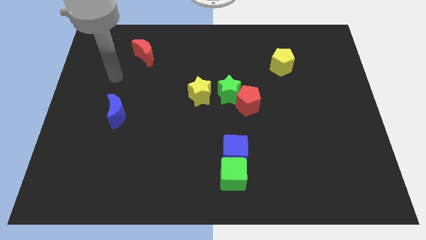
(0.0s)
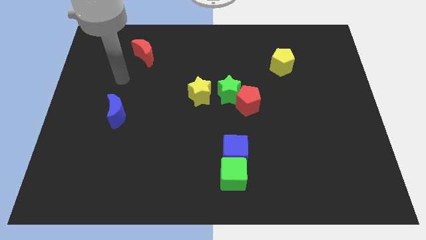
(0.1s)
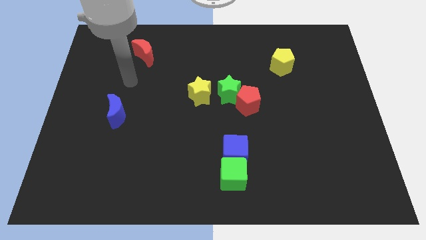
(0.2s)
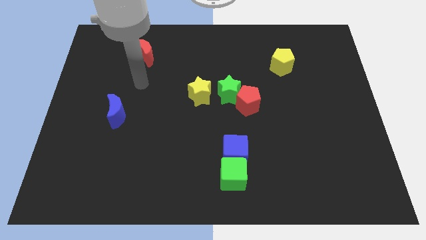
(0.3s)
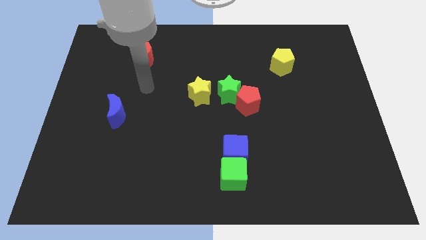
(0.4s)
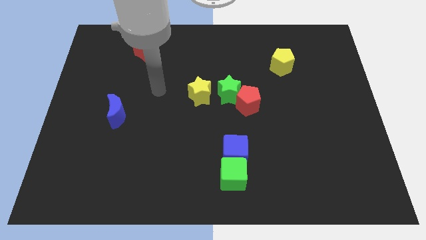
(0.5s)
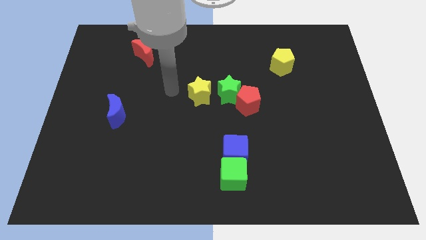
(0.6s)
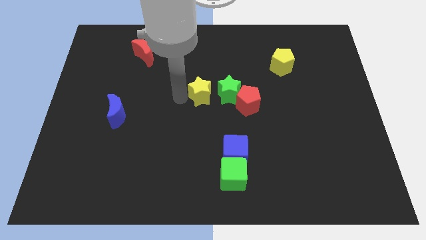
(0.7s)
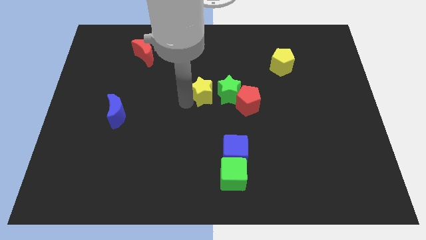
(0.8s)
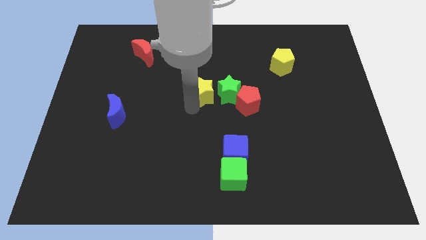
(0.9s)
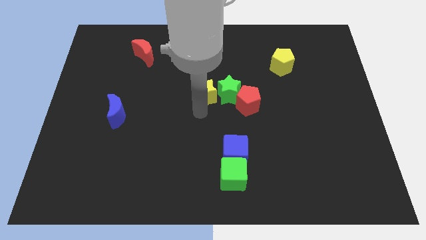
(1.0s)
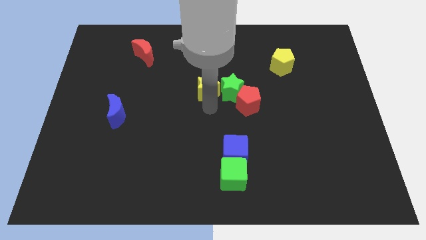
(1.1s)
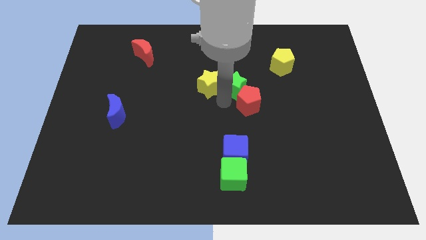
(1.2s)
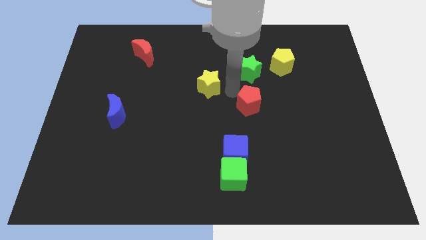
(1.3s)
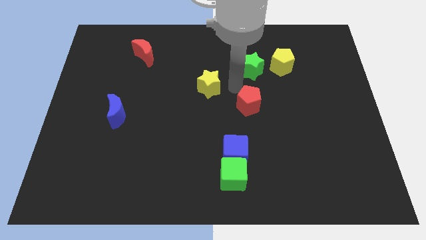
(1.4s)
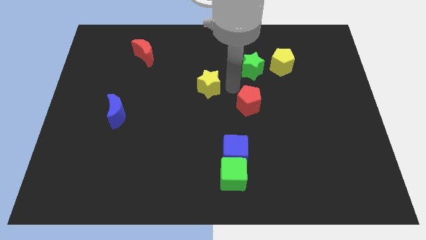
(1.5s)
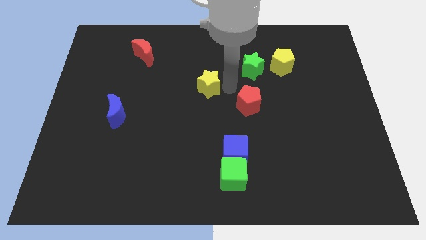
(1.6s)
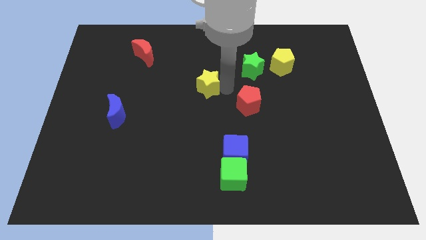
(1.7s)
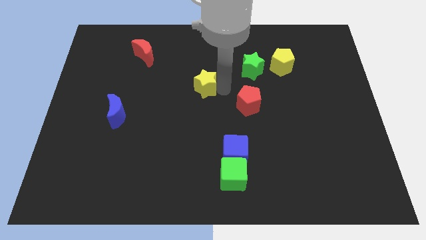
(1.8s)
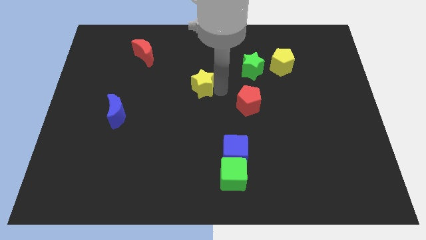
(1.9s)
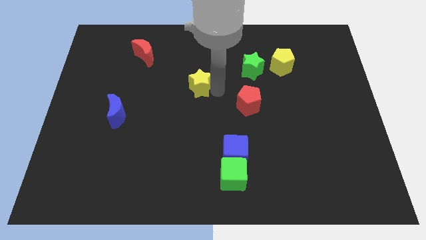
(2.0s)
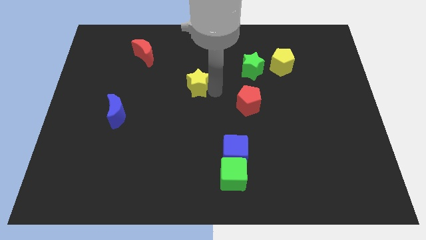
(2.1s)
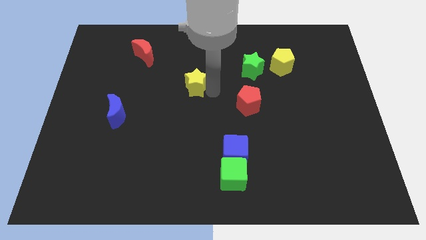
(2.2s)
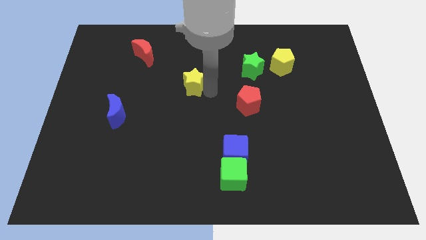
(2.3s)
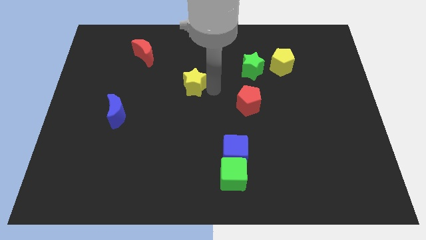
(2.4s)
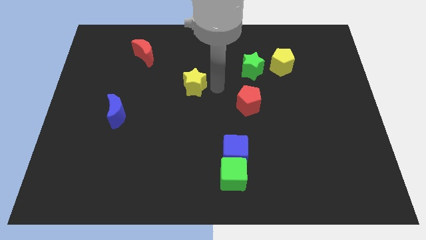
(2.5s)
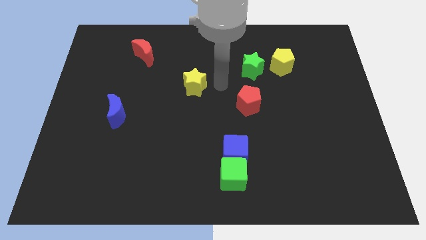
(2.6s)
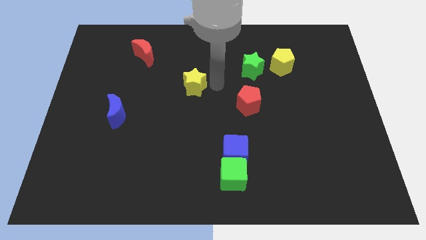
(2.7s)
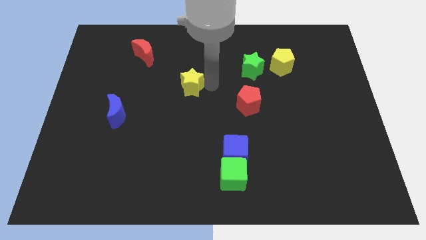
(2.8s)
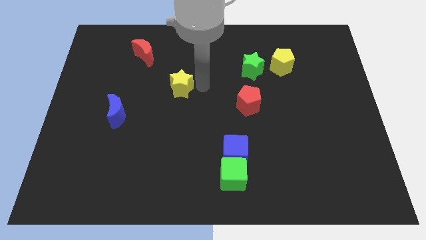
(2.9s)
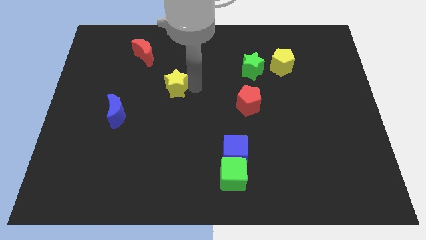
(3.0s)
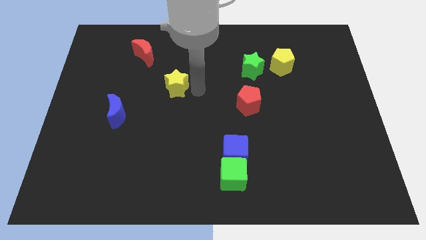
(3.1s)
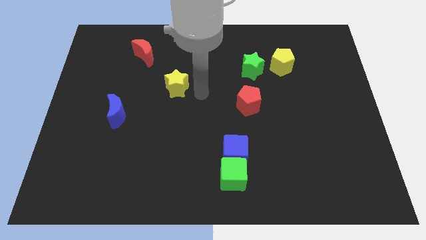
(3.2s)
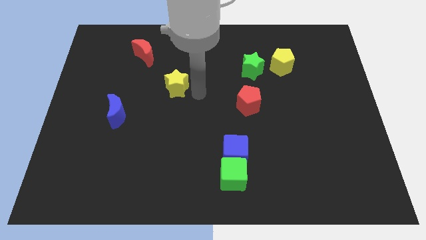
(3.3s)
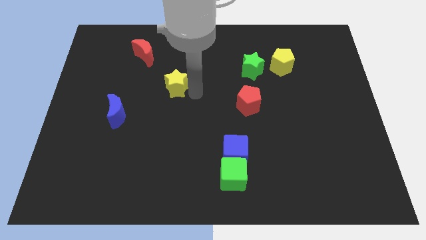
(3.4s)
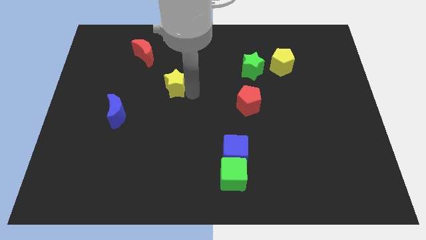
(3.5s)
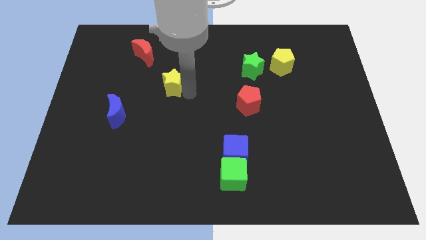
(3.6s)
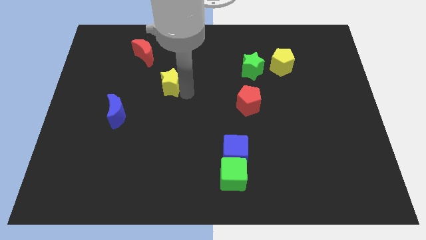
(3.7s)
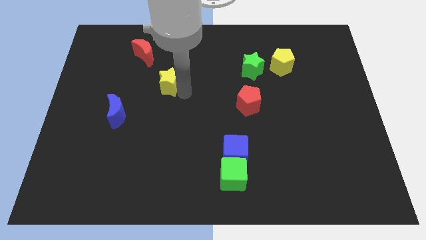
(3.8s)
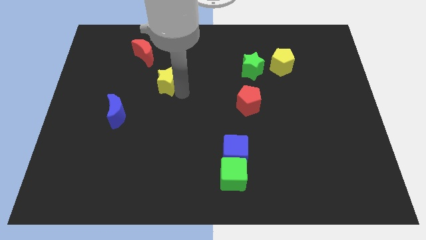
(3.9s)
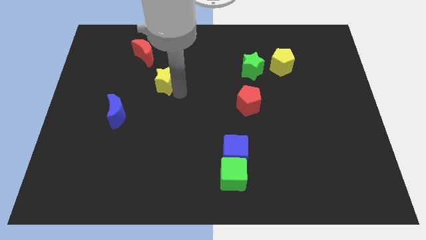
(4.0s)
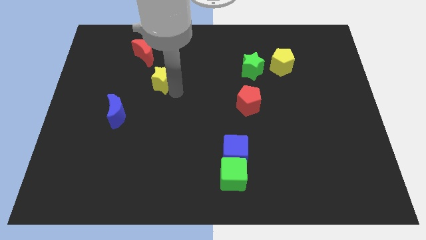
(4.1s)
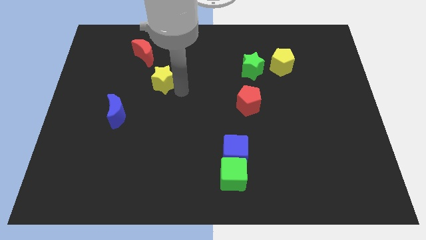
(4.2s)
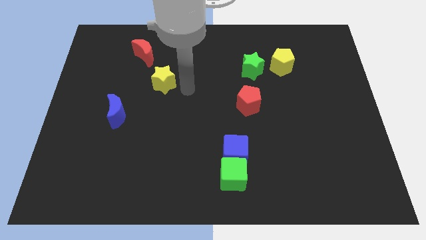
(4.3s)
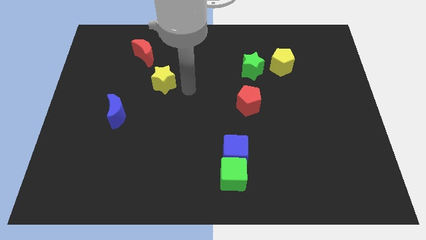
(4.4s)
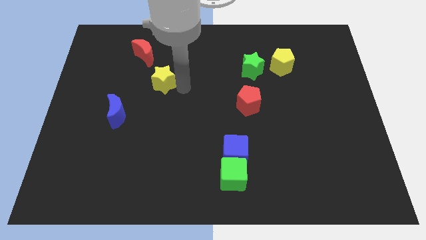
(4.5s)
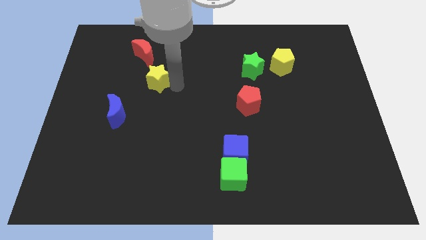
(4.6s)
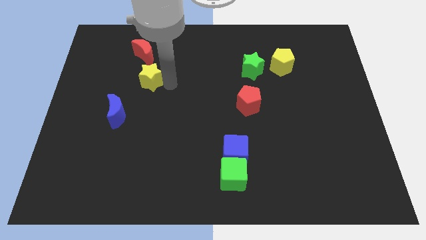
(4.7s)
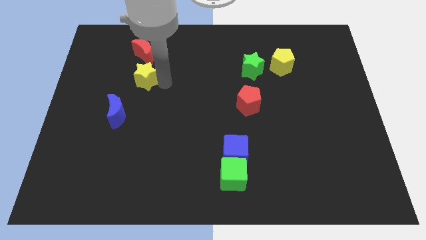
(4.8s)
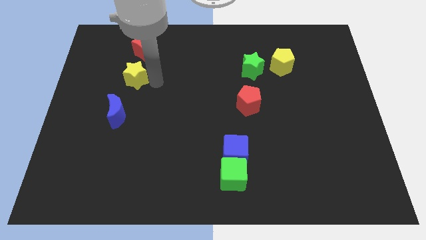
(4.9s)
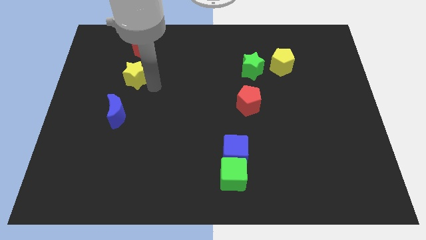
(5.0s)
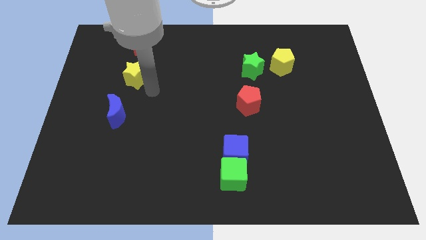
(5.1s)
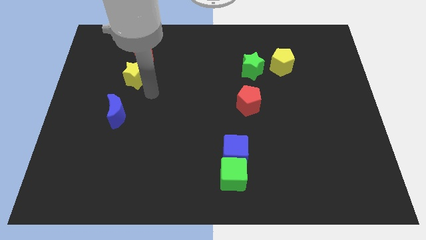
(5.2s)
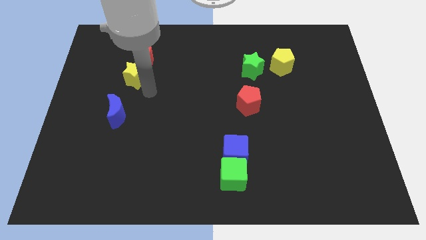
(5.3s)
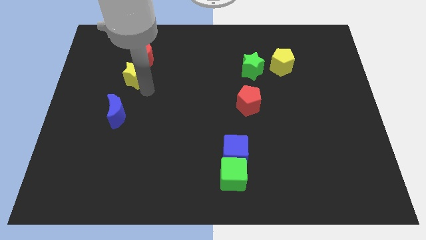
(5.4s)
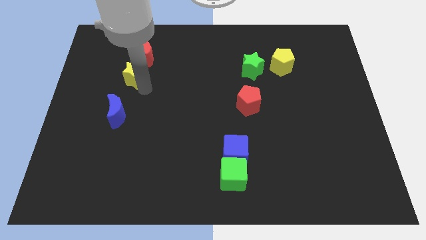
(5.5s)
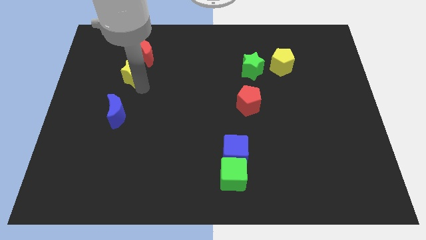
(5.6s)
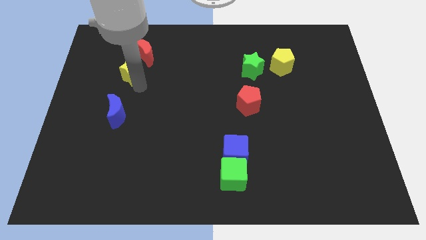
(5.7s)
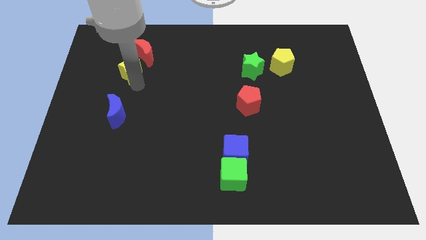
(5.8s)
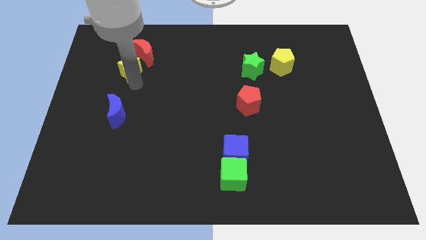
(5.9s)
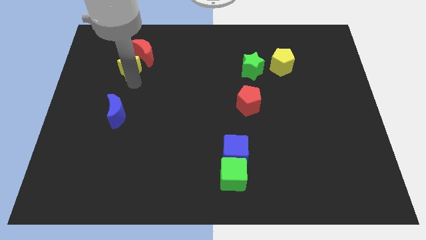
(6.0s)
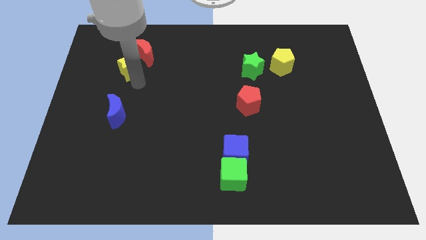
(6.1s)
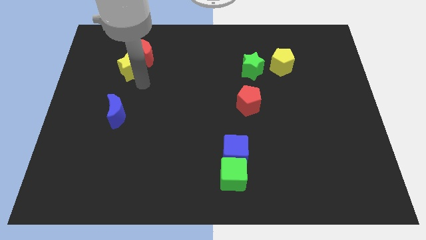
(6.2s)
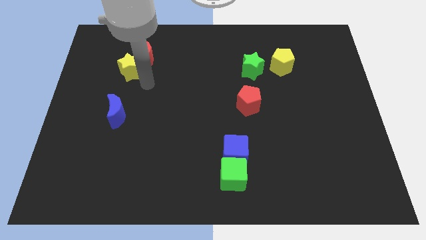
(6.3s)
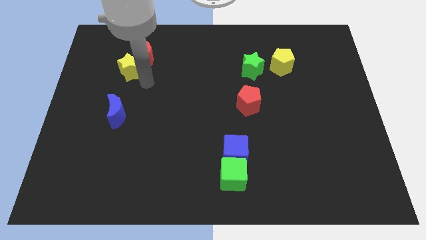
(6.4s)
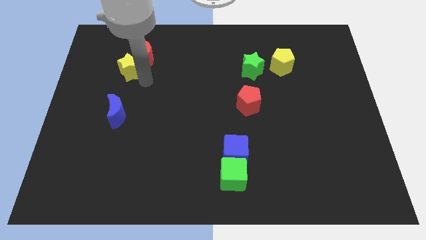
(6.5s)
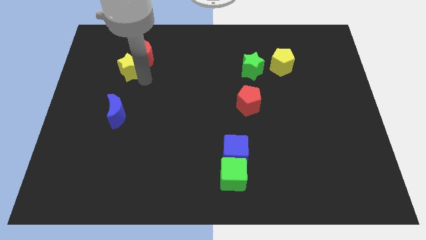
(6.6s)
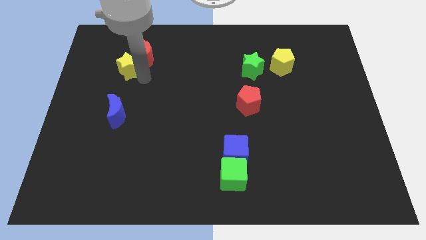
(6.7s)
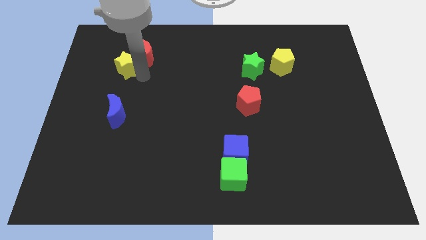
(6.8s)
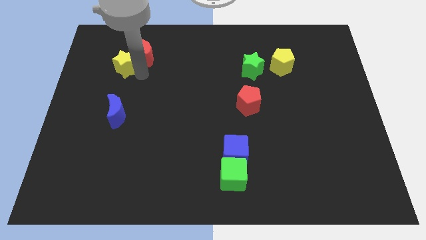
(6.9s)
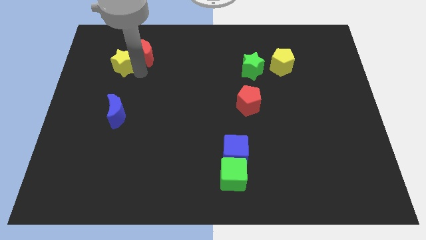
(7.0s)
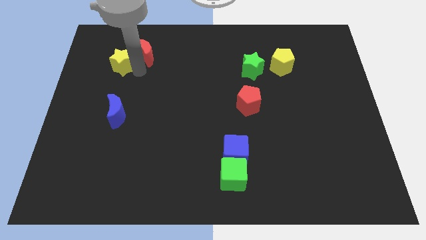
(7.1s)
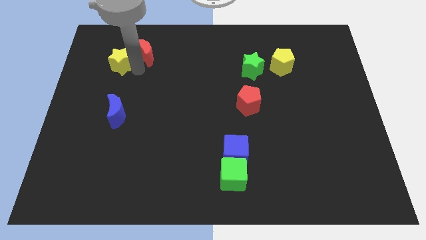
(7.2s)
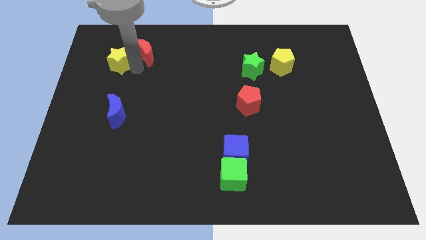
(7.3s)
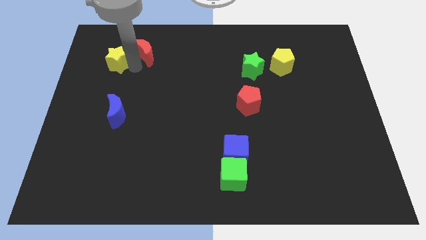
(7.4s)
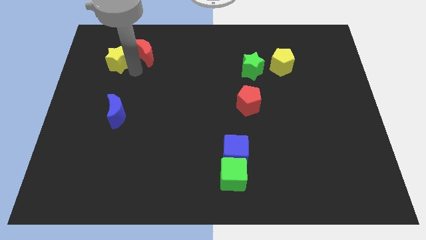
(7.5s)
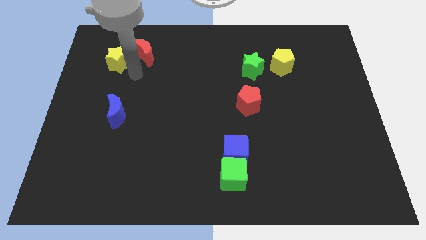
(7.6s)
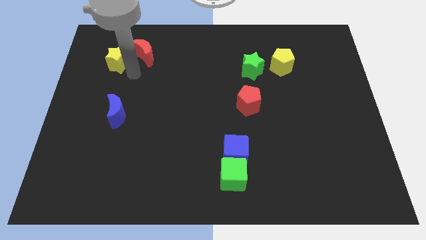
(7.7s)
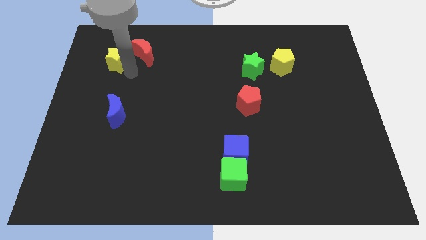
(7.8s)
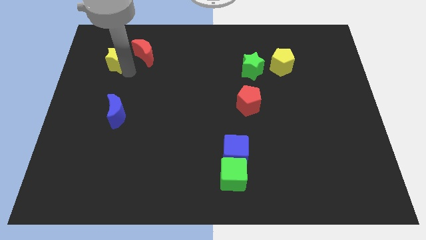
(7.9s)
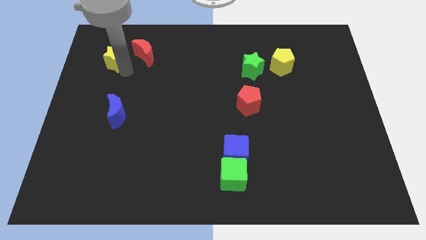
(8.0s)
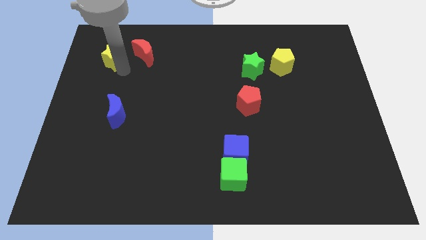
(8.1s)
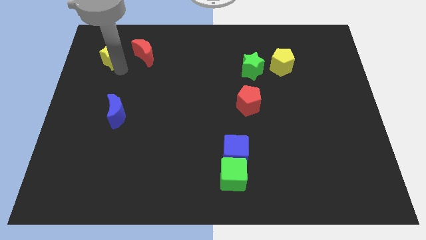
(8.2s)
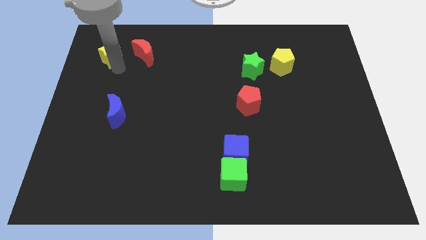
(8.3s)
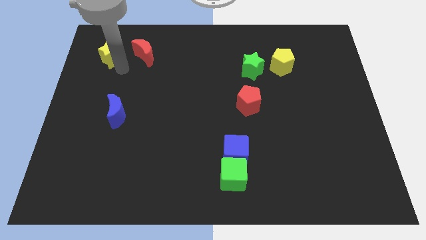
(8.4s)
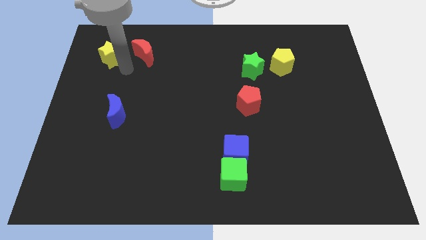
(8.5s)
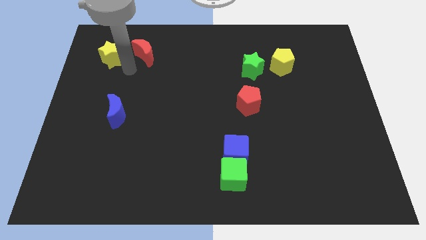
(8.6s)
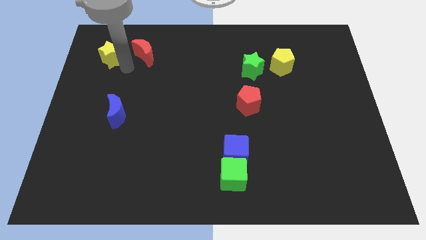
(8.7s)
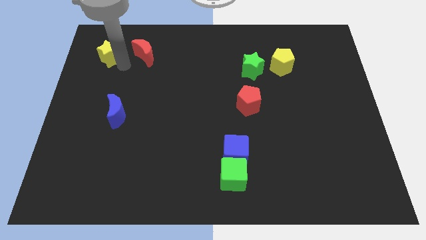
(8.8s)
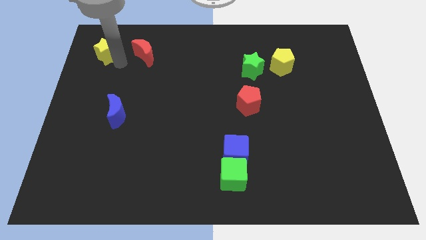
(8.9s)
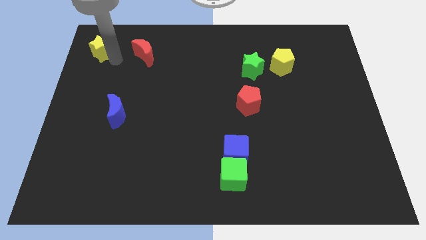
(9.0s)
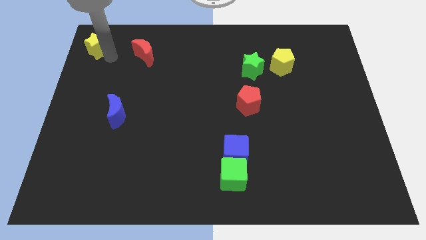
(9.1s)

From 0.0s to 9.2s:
push the yellow star to the top left
